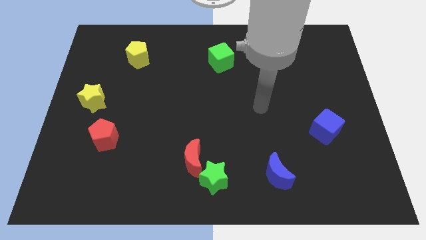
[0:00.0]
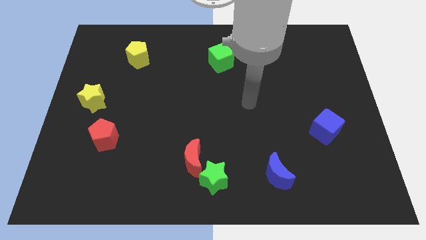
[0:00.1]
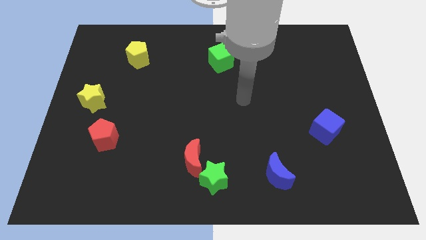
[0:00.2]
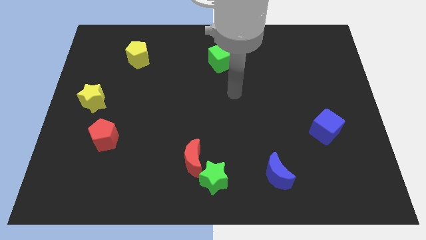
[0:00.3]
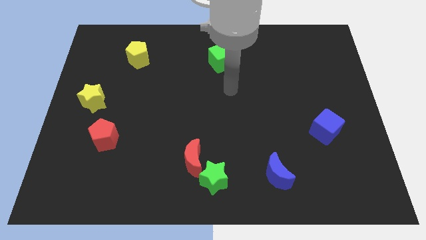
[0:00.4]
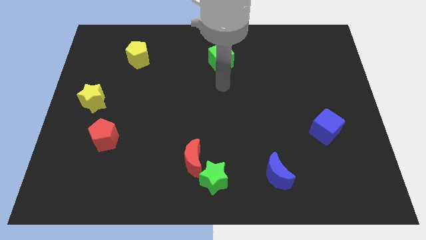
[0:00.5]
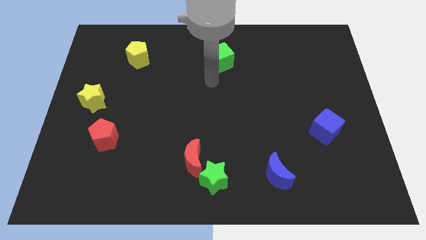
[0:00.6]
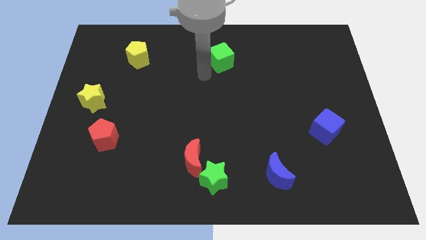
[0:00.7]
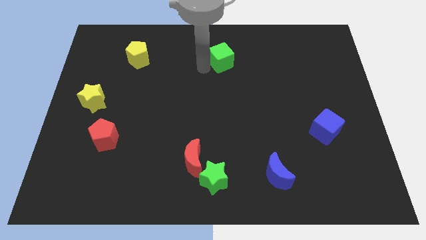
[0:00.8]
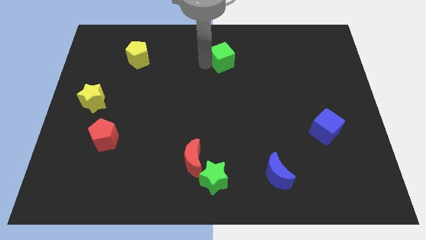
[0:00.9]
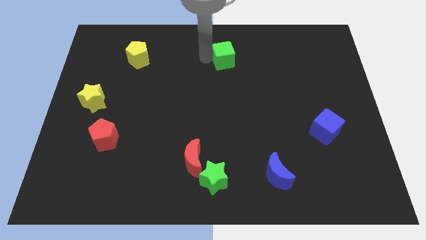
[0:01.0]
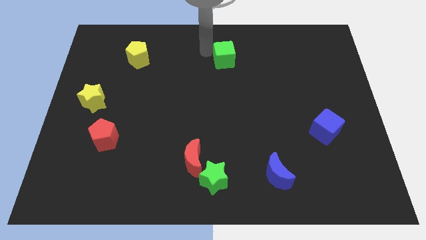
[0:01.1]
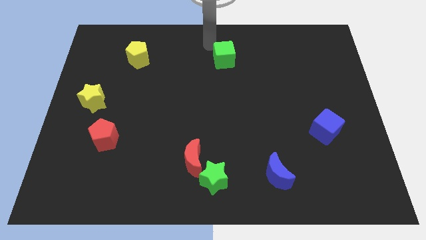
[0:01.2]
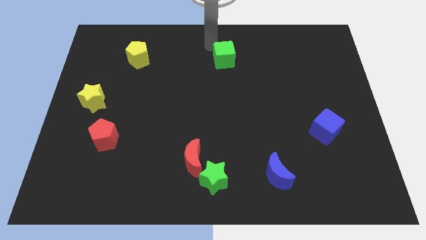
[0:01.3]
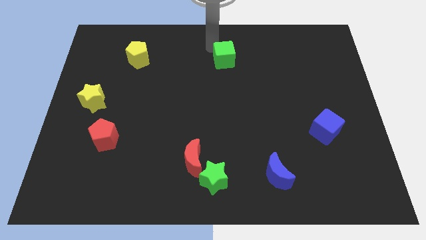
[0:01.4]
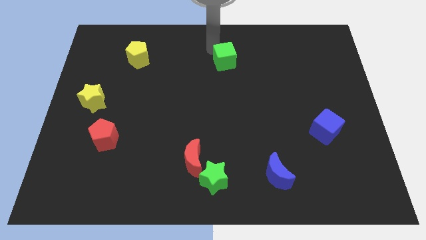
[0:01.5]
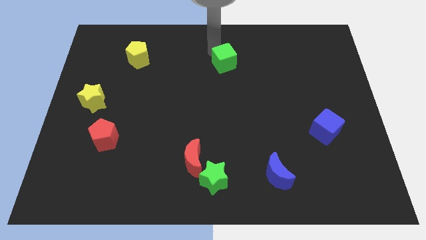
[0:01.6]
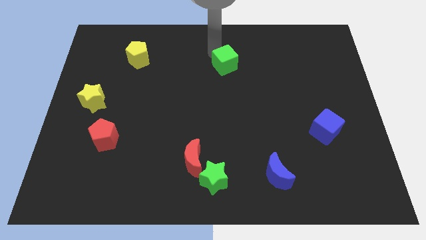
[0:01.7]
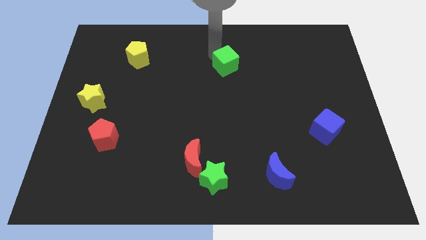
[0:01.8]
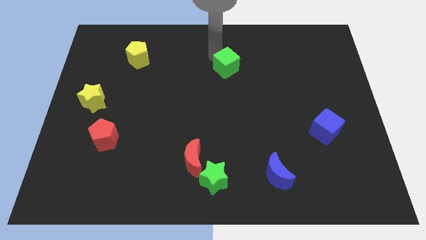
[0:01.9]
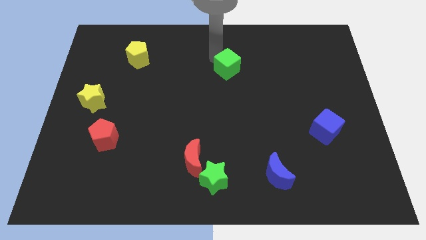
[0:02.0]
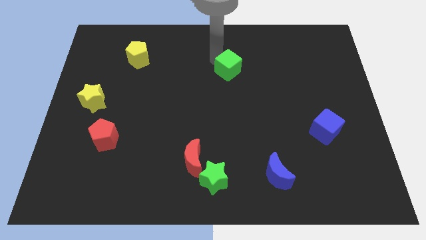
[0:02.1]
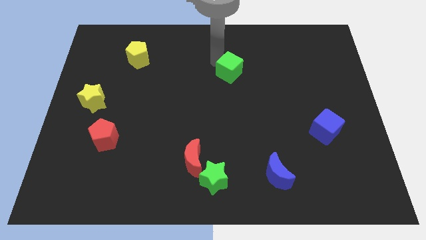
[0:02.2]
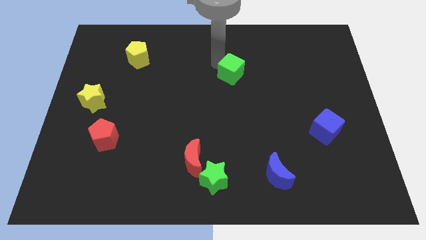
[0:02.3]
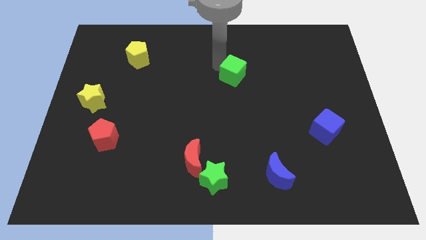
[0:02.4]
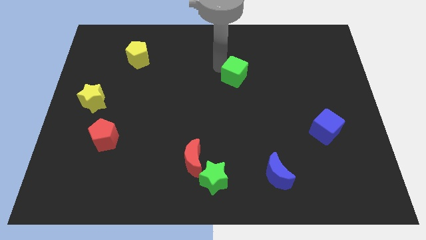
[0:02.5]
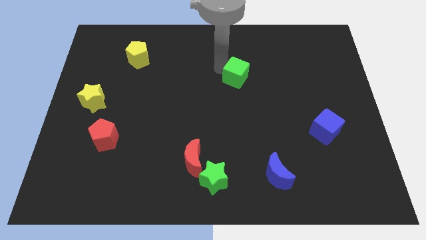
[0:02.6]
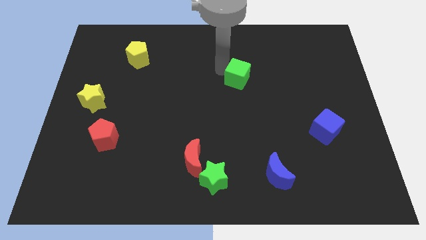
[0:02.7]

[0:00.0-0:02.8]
move the green cube downwards and right somewhat

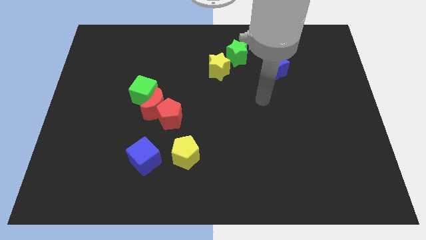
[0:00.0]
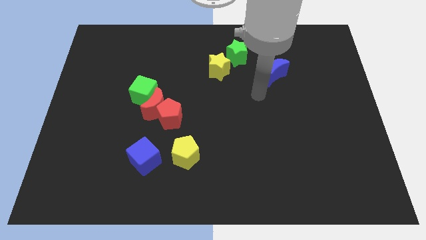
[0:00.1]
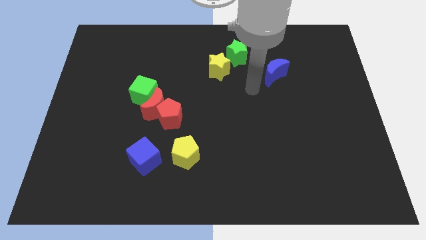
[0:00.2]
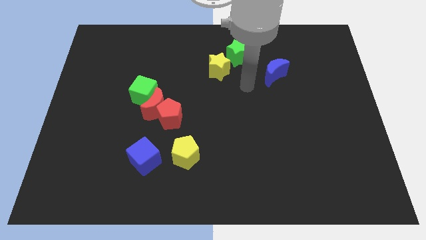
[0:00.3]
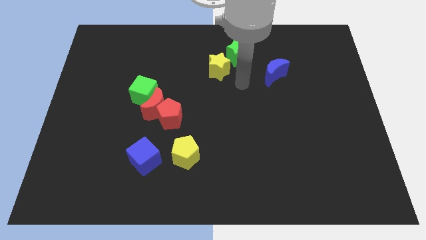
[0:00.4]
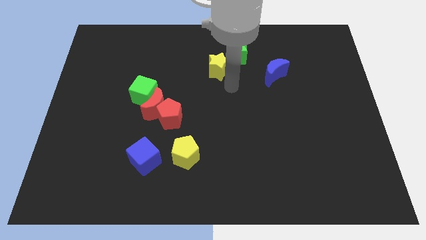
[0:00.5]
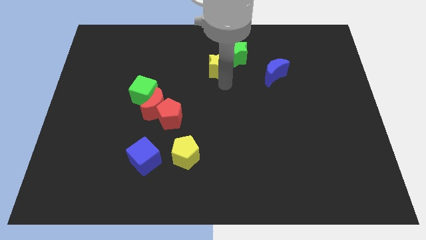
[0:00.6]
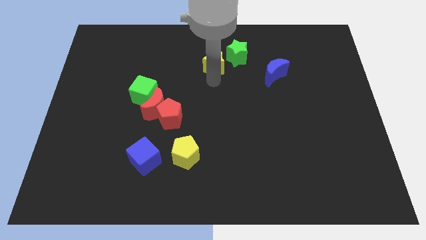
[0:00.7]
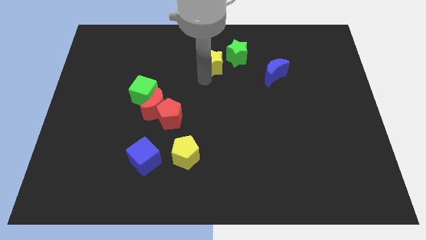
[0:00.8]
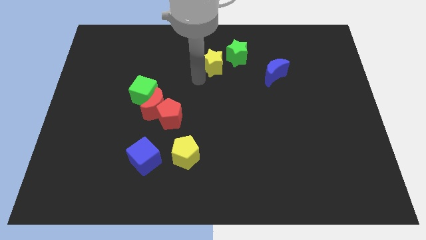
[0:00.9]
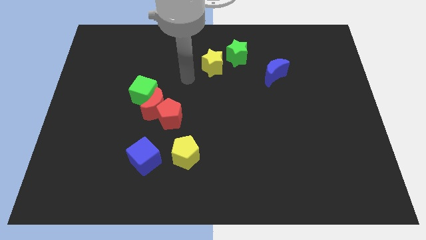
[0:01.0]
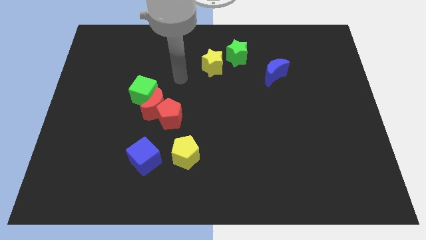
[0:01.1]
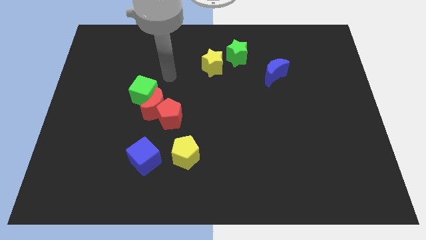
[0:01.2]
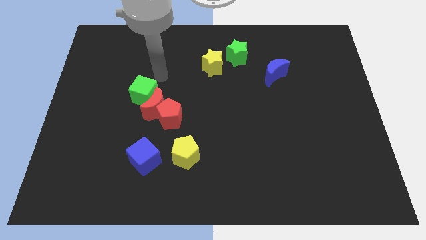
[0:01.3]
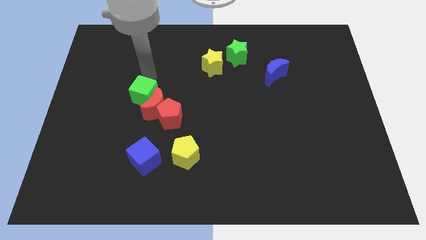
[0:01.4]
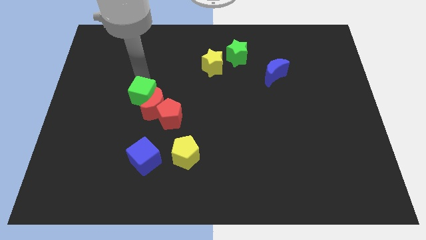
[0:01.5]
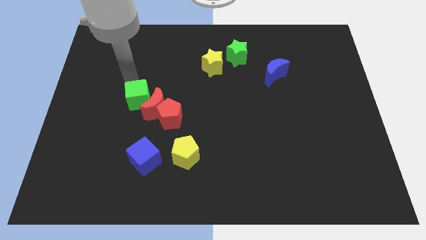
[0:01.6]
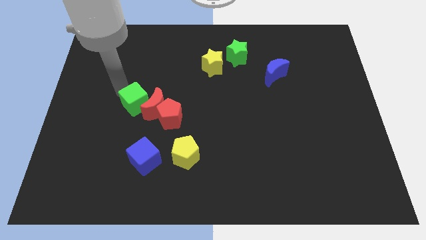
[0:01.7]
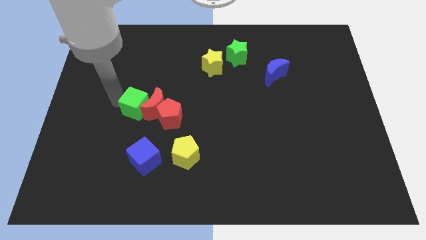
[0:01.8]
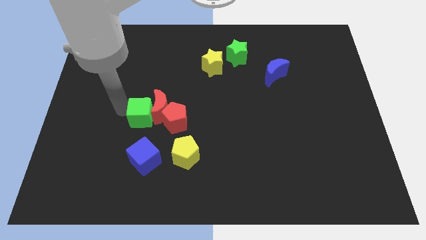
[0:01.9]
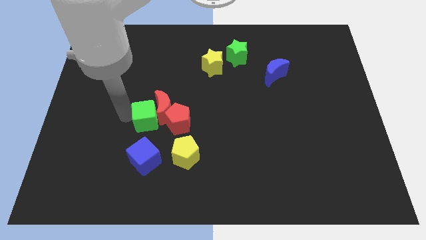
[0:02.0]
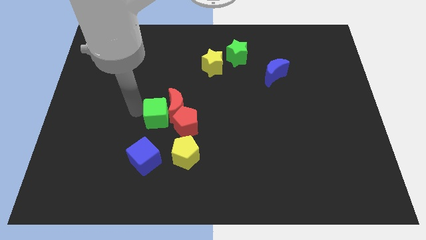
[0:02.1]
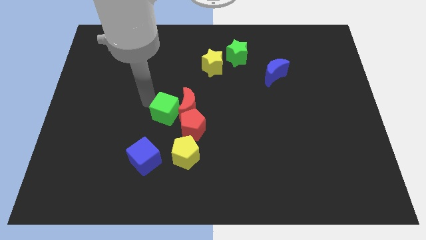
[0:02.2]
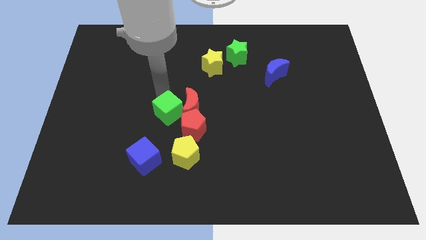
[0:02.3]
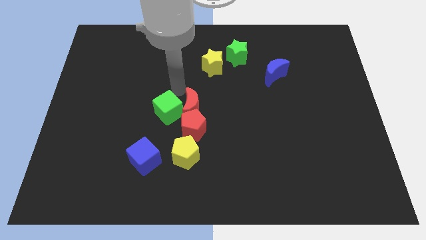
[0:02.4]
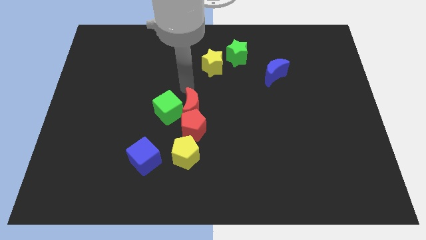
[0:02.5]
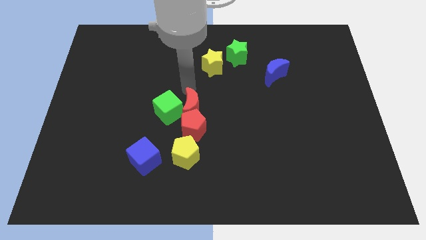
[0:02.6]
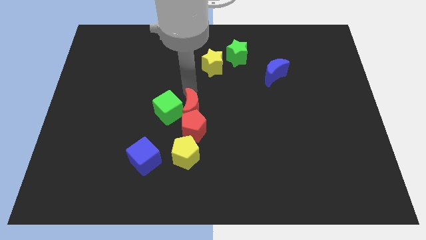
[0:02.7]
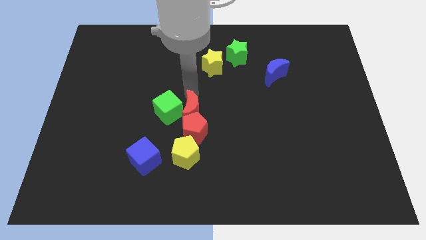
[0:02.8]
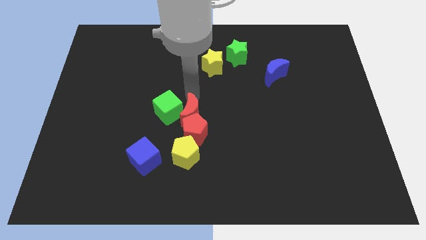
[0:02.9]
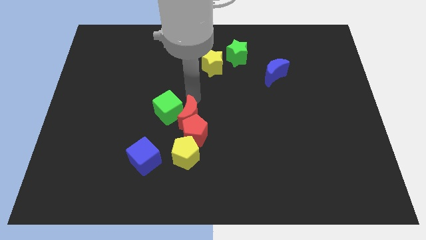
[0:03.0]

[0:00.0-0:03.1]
push the red moon a bit diagonally downwards and to the right

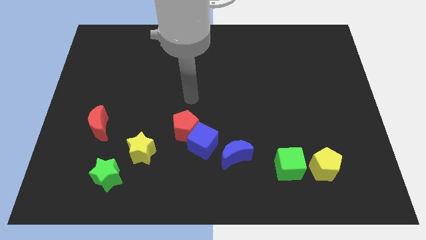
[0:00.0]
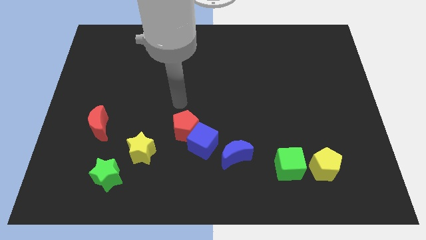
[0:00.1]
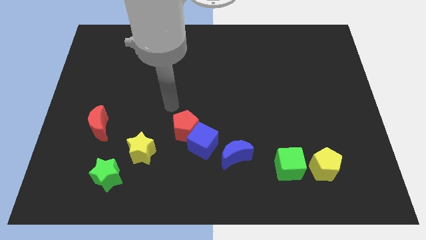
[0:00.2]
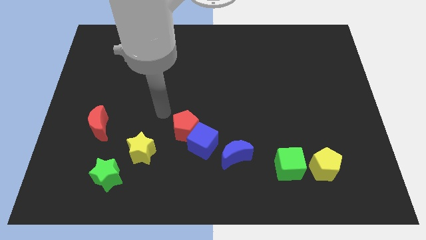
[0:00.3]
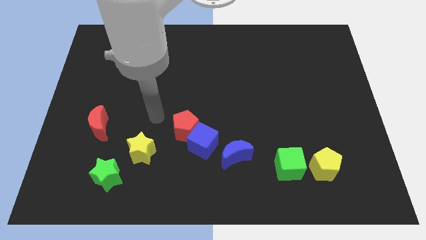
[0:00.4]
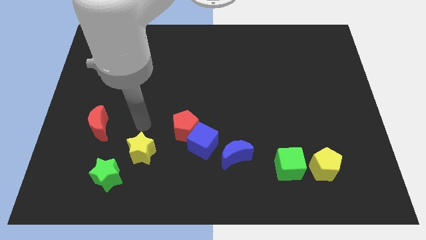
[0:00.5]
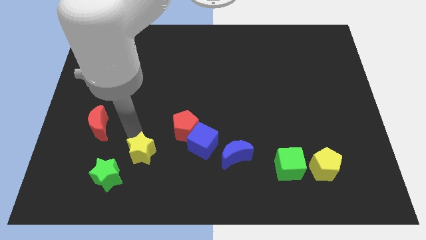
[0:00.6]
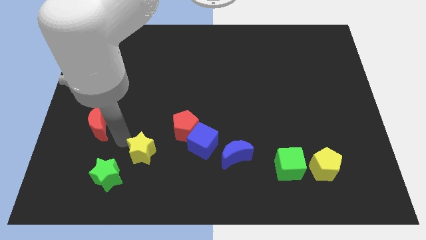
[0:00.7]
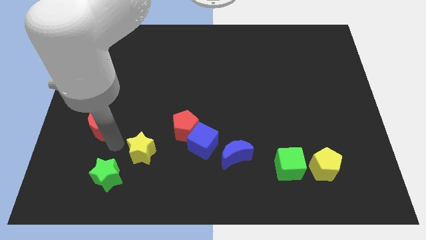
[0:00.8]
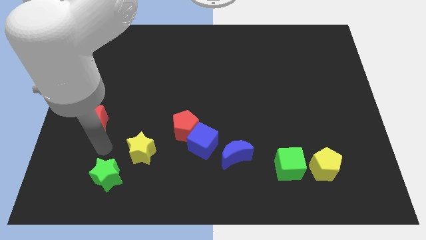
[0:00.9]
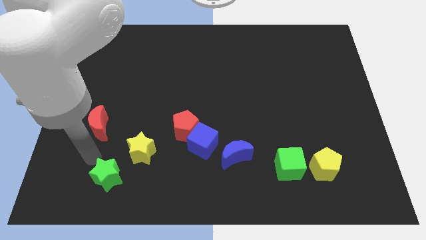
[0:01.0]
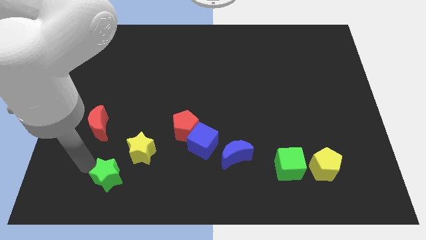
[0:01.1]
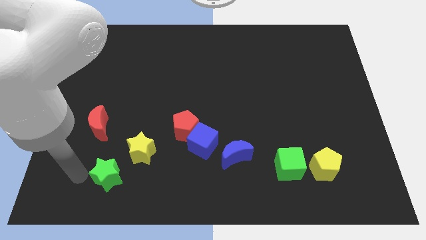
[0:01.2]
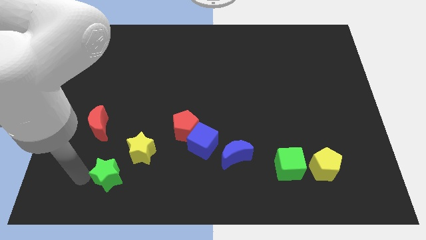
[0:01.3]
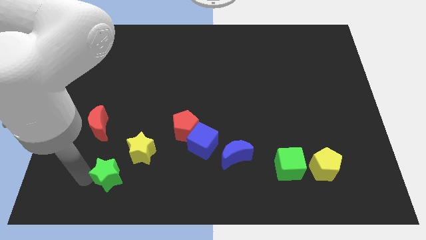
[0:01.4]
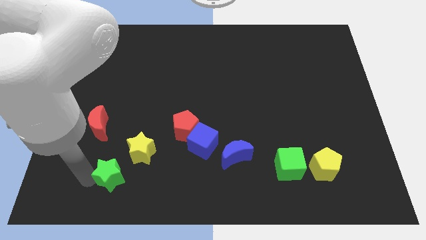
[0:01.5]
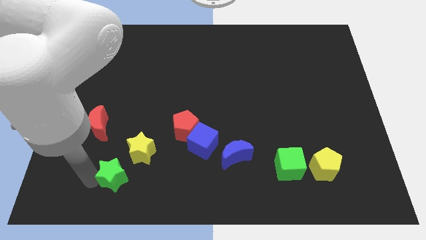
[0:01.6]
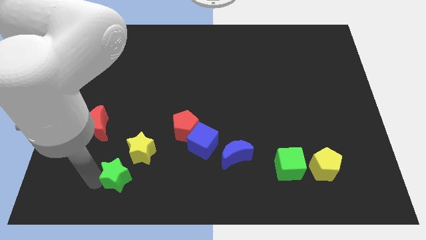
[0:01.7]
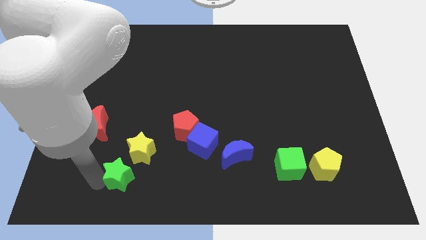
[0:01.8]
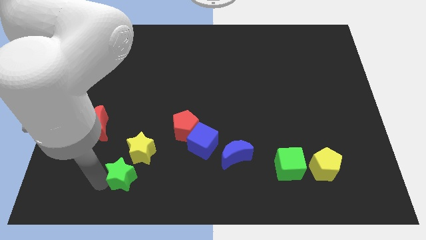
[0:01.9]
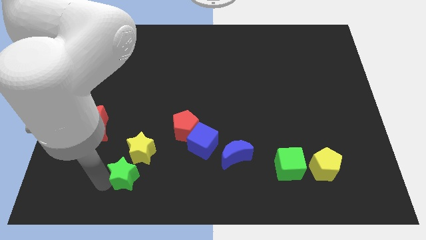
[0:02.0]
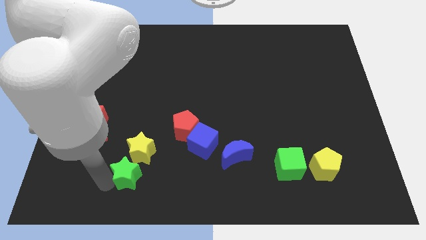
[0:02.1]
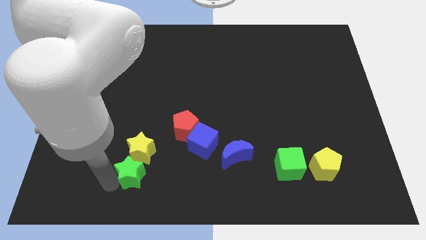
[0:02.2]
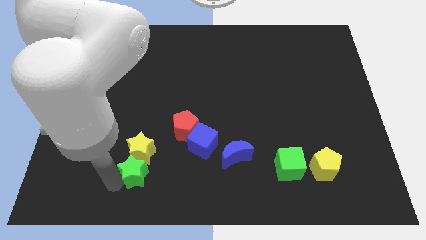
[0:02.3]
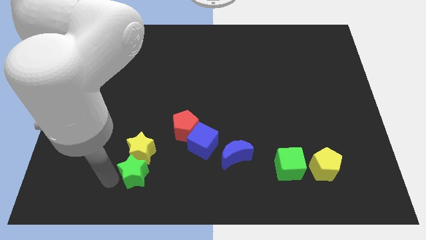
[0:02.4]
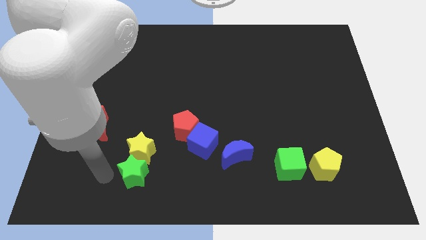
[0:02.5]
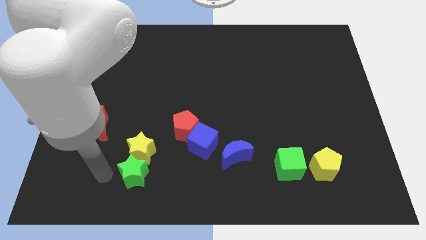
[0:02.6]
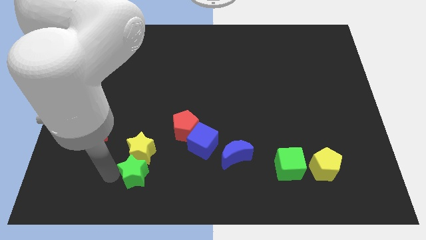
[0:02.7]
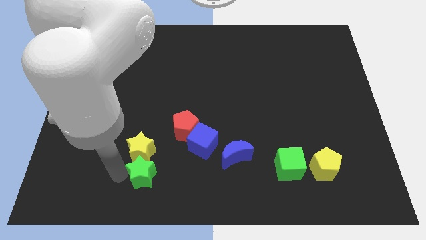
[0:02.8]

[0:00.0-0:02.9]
slide the green star to the right somewhat
